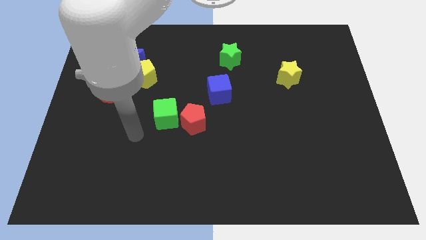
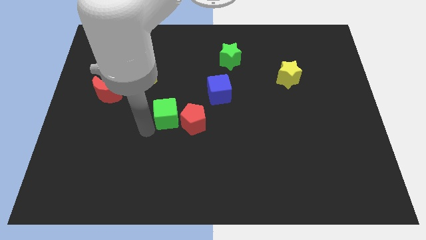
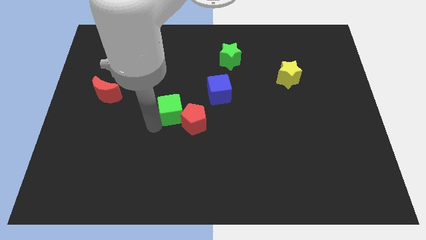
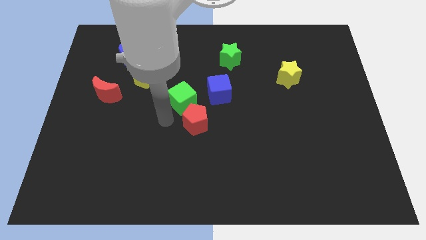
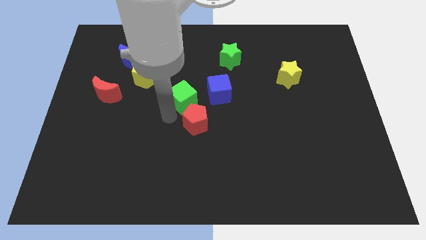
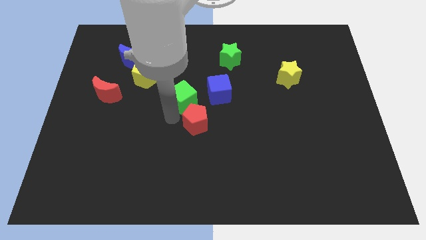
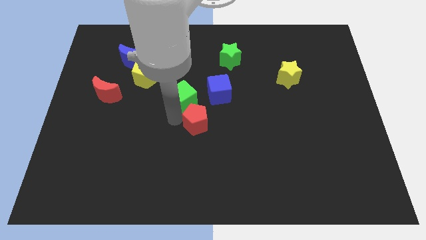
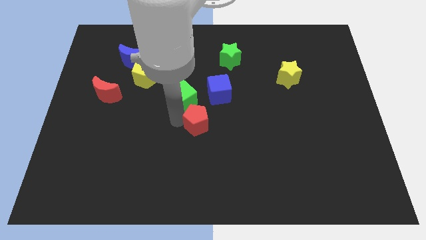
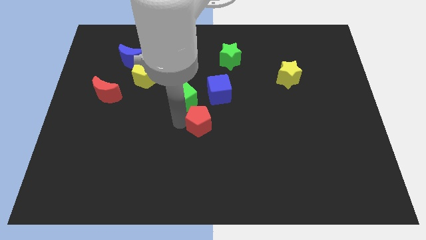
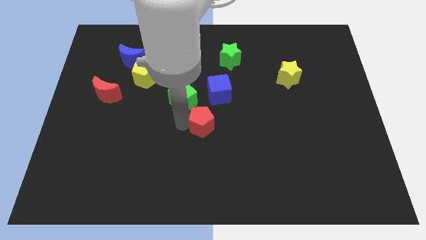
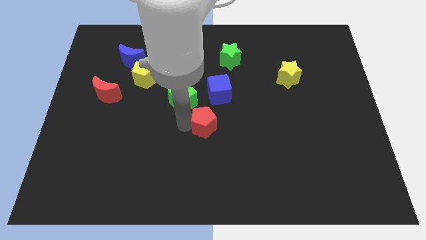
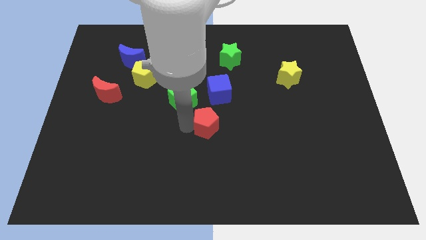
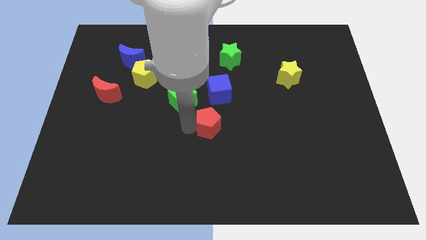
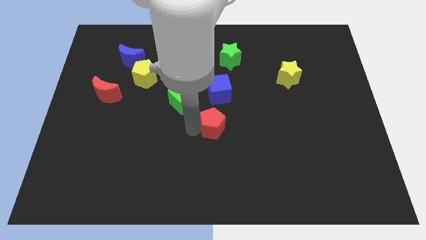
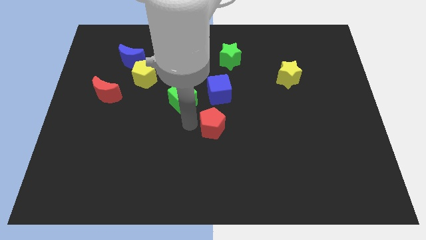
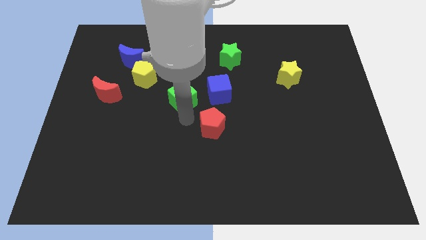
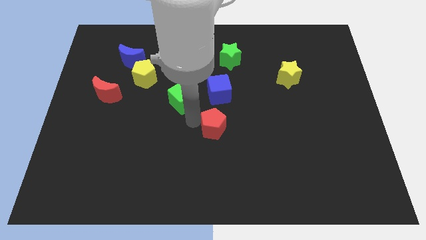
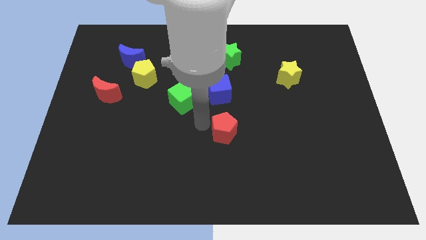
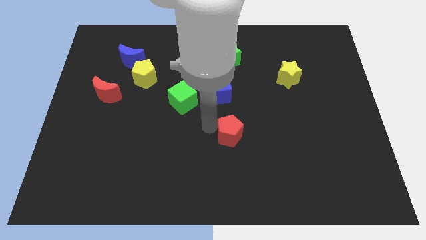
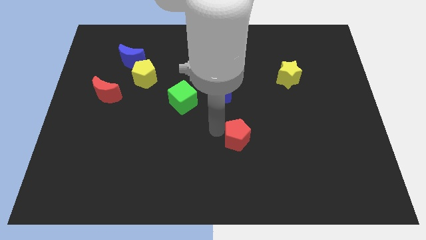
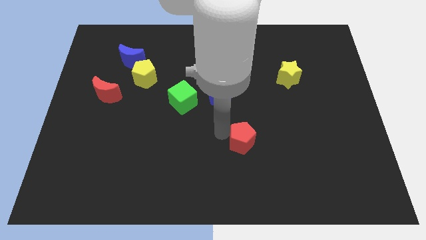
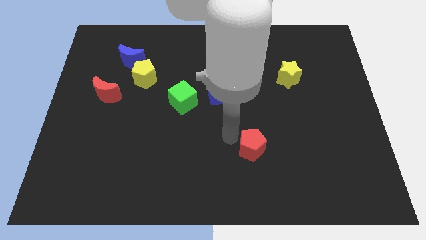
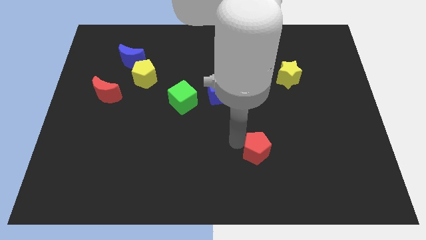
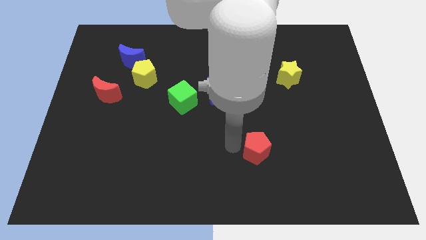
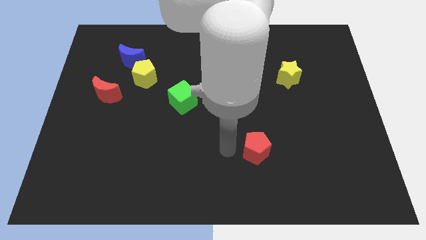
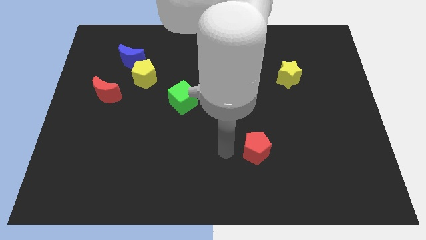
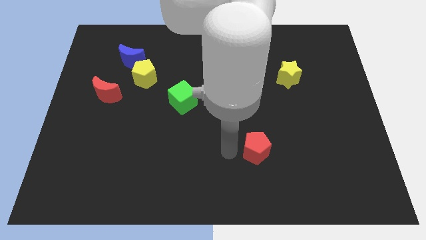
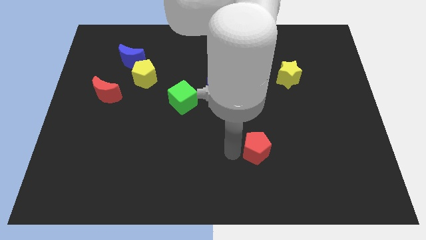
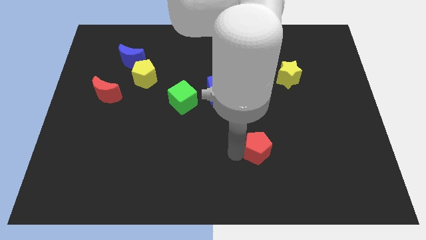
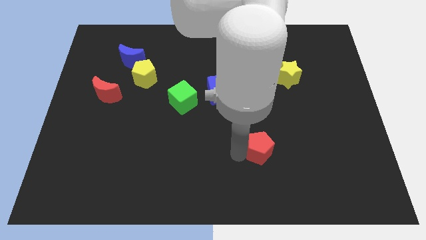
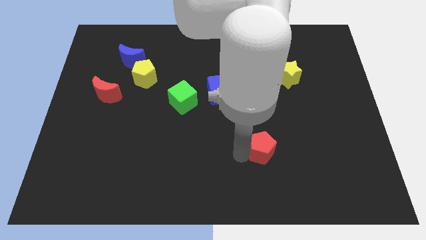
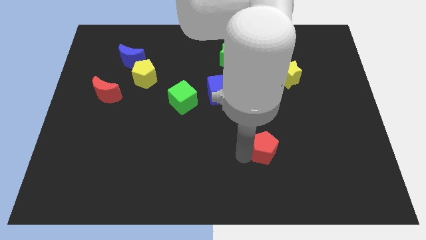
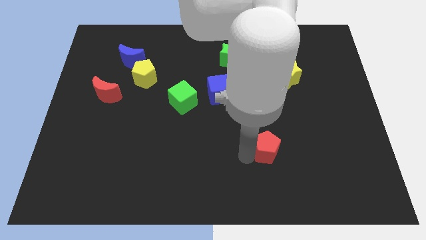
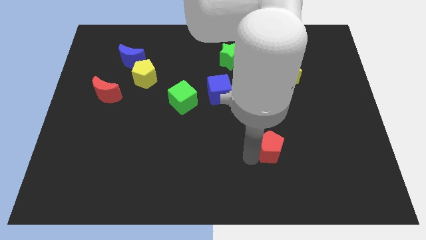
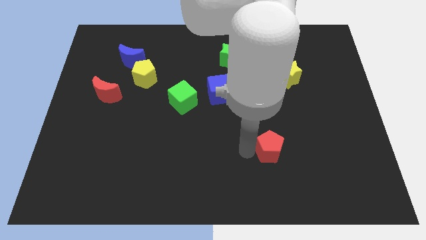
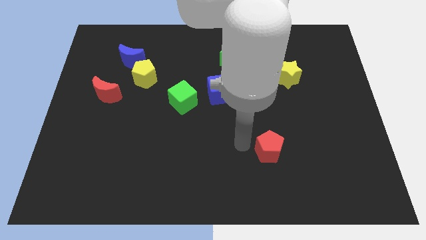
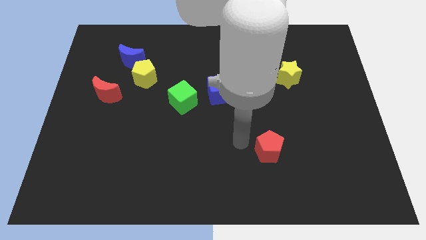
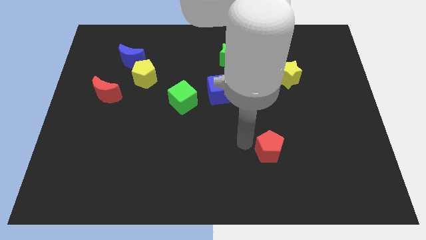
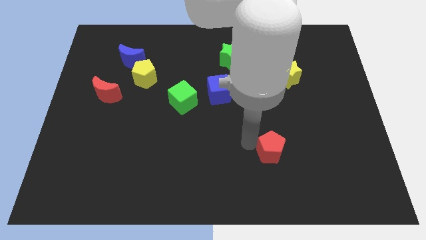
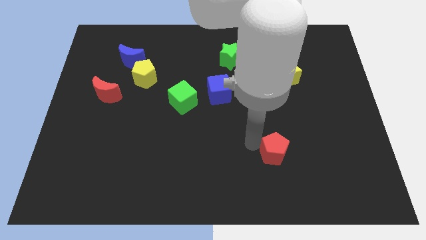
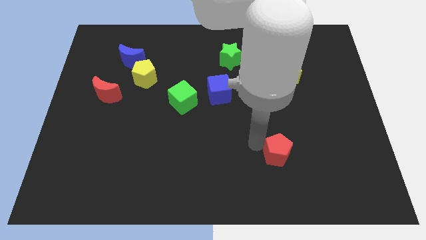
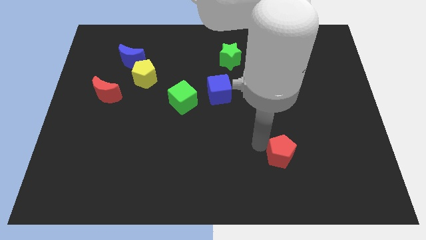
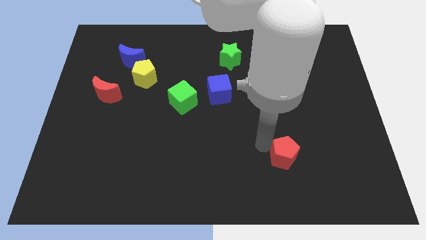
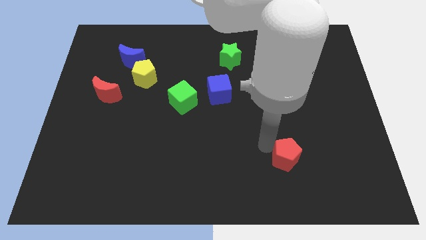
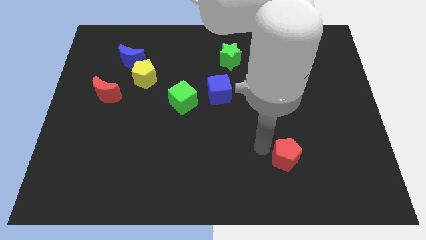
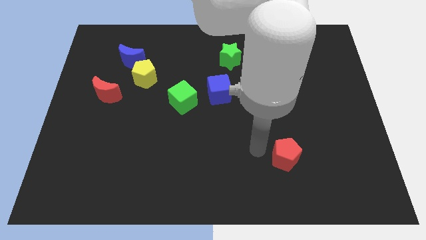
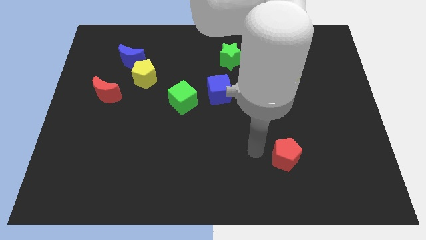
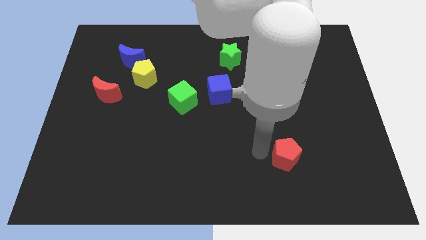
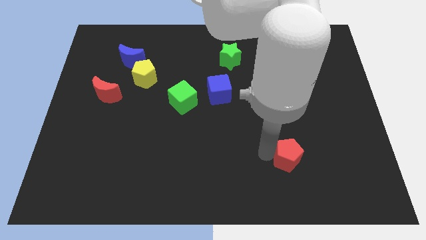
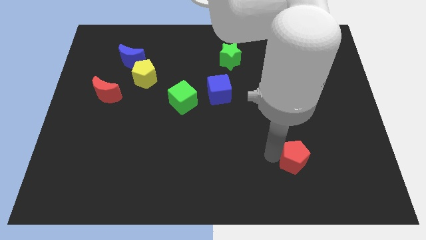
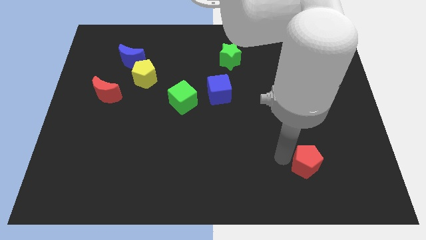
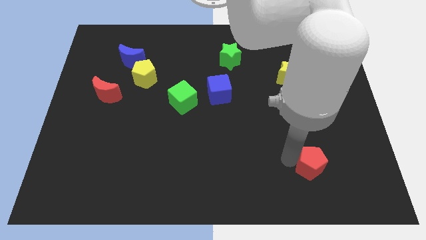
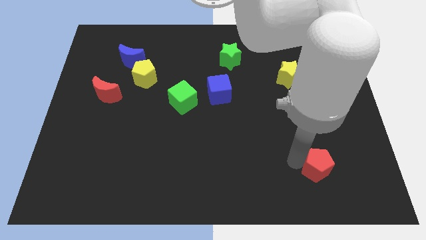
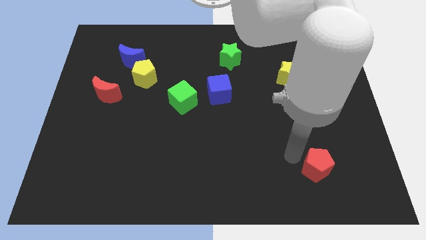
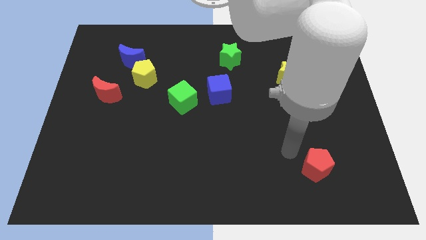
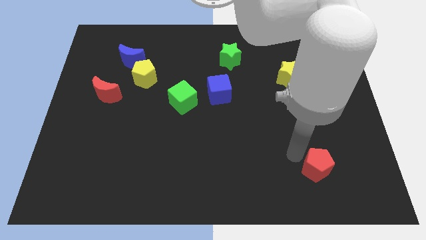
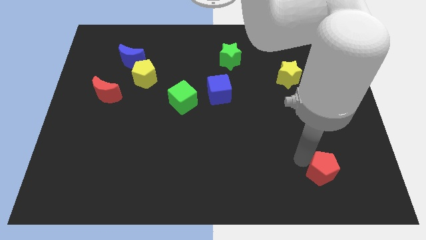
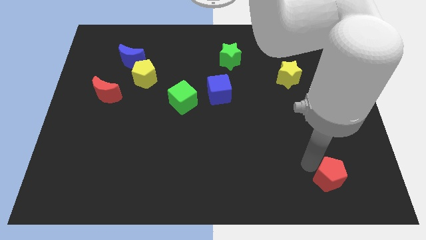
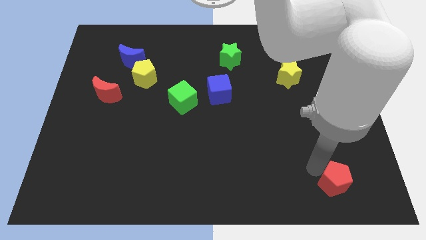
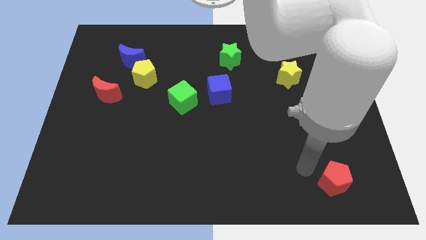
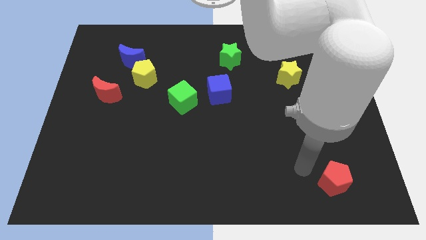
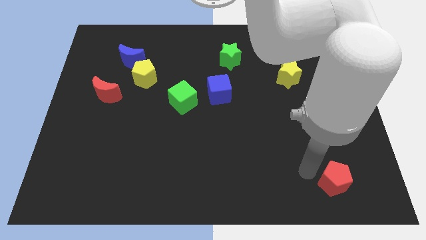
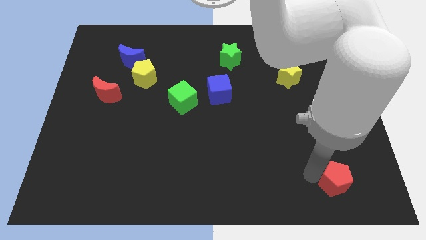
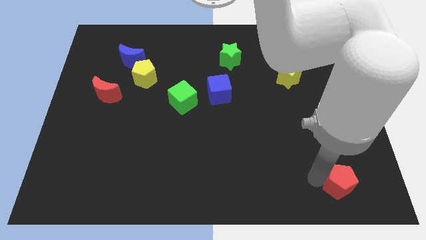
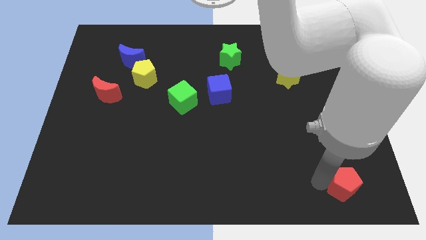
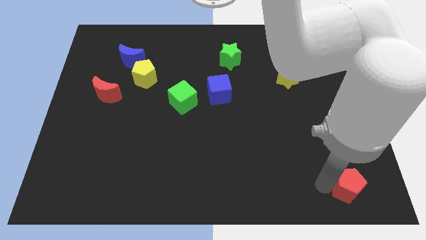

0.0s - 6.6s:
slide the red pentagon to the lower right corner

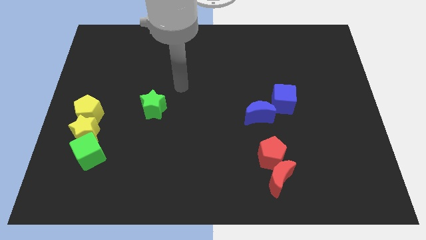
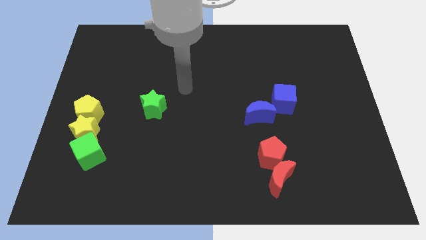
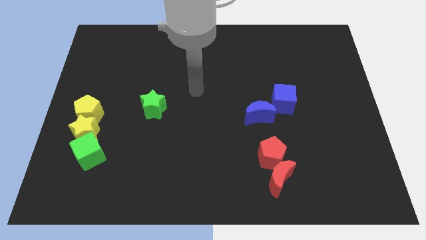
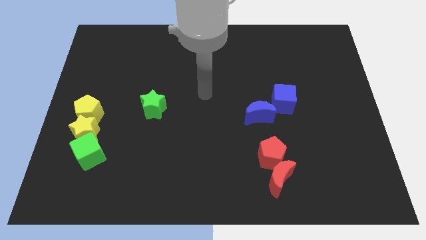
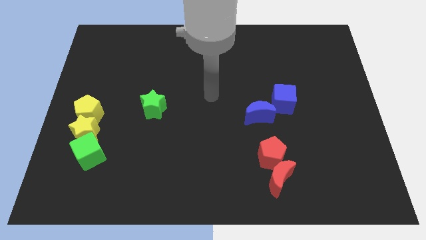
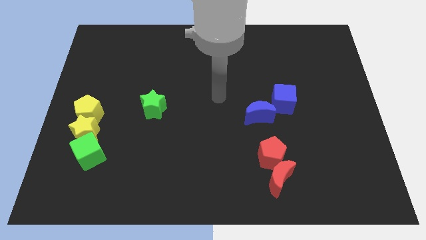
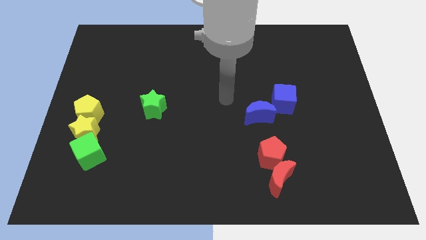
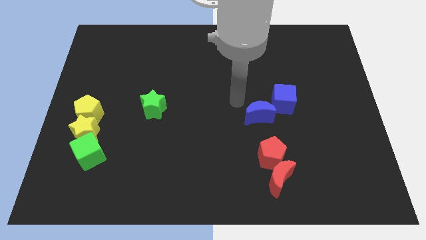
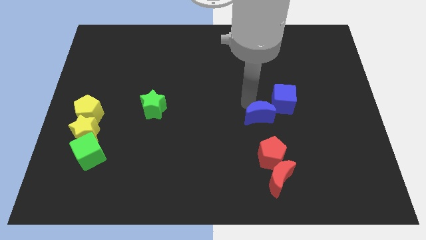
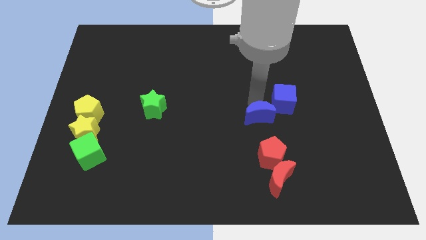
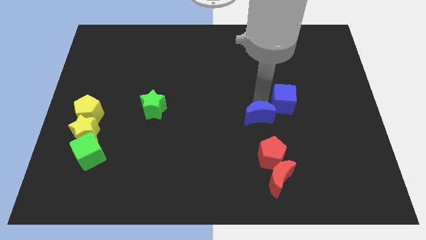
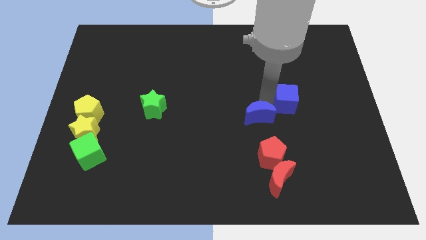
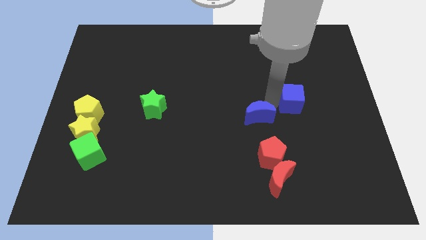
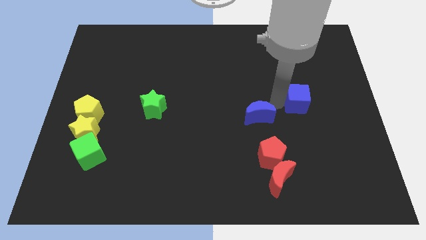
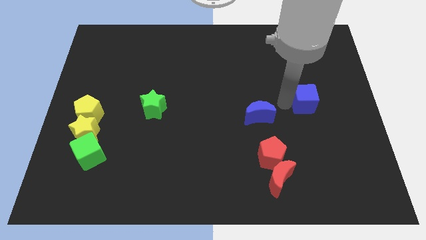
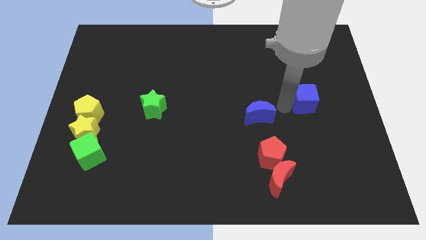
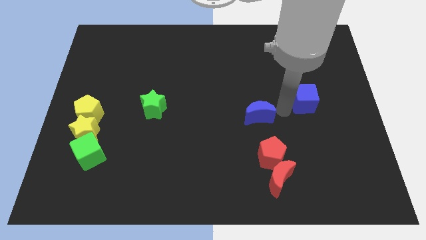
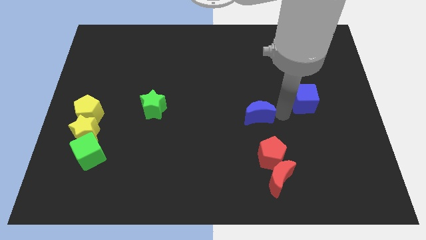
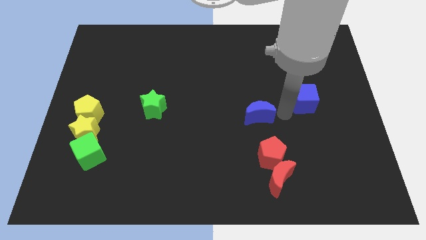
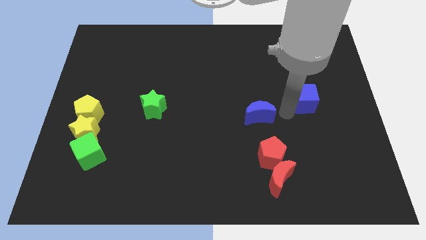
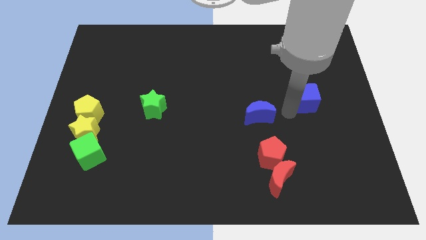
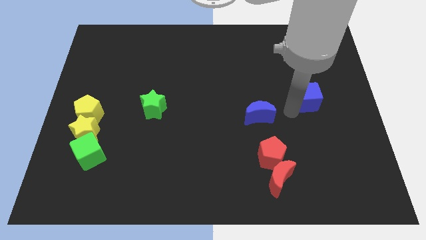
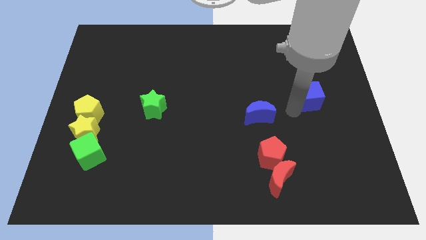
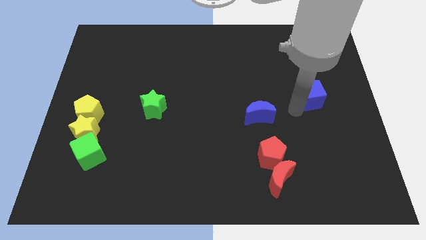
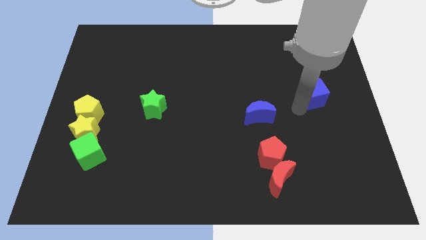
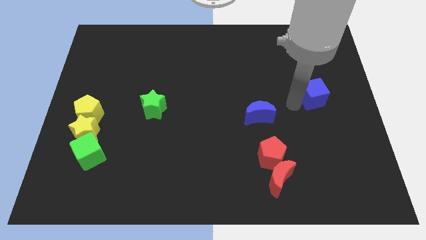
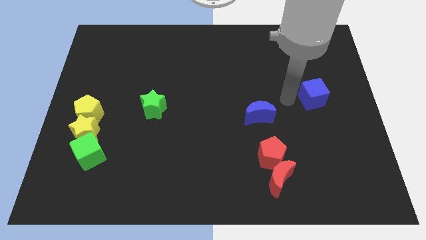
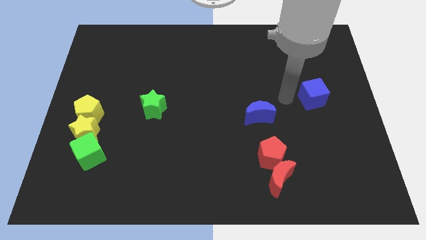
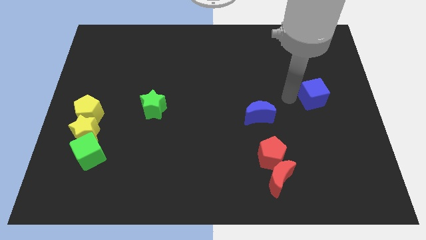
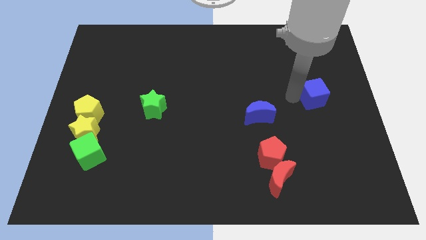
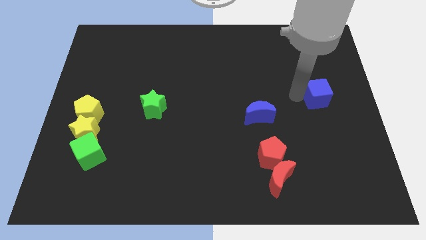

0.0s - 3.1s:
move the blue cube to the right side
